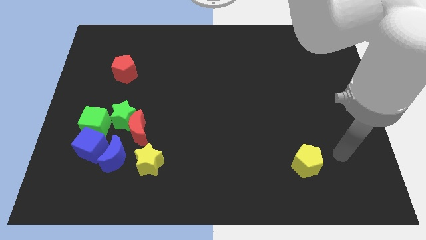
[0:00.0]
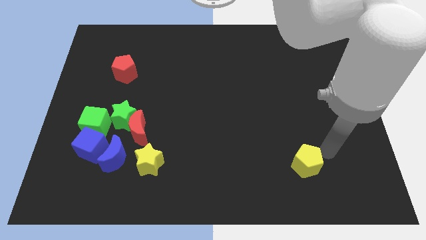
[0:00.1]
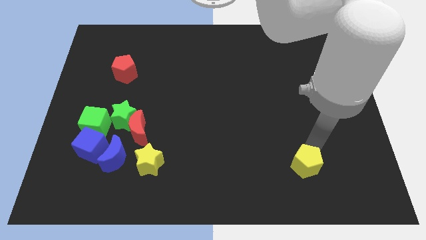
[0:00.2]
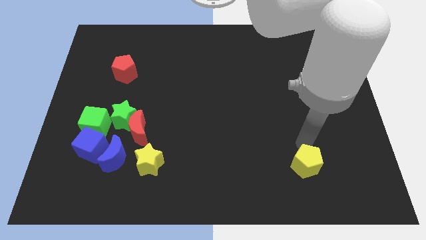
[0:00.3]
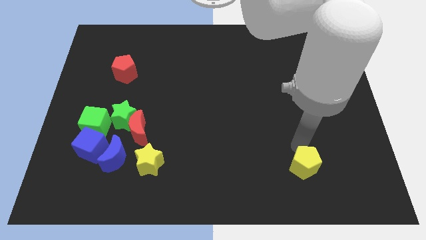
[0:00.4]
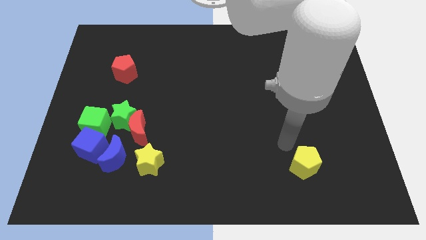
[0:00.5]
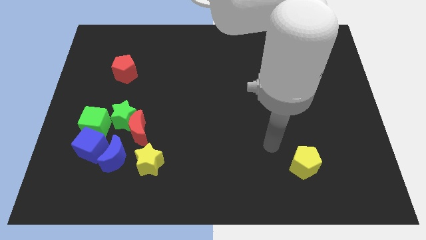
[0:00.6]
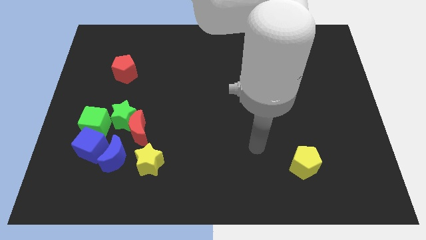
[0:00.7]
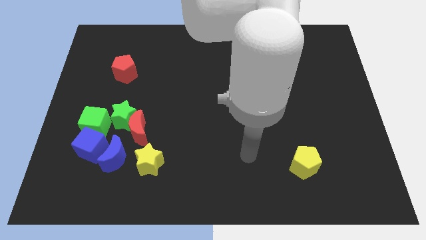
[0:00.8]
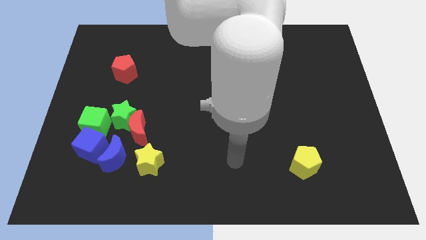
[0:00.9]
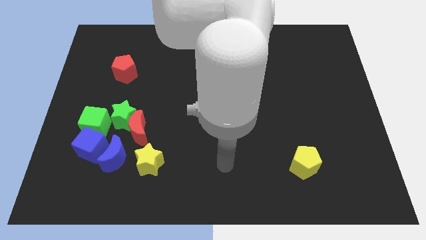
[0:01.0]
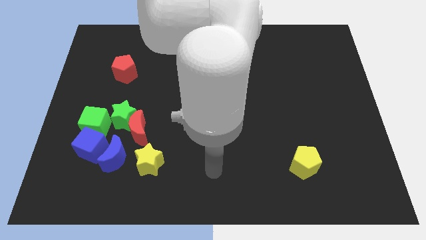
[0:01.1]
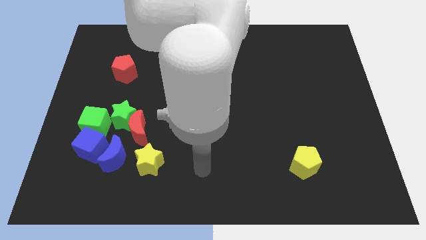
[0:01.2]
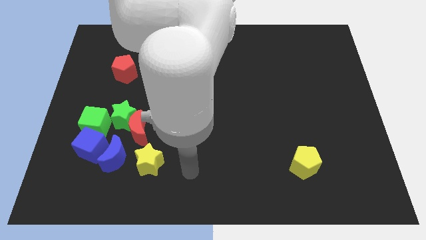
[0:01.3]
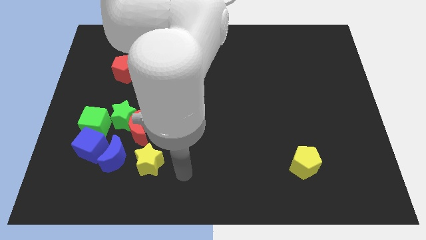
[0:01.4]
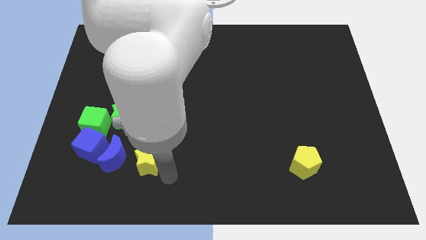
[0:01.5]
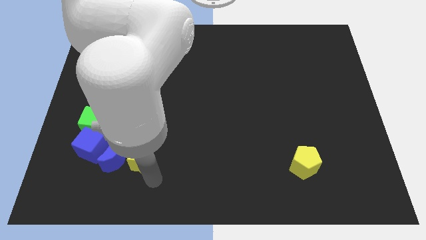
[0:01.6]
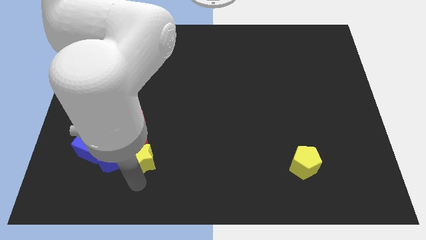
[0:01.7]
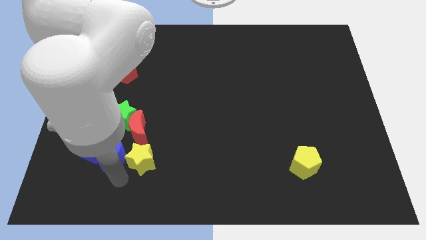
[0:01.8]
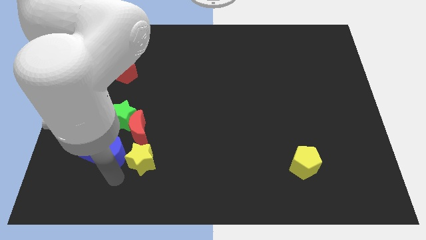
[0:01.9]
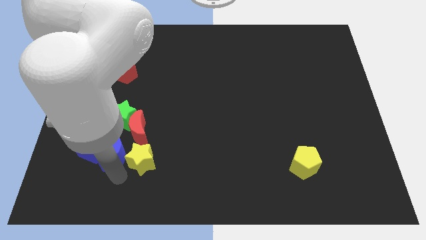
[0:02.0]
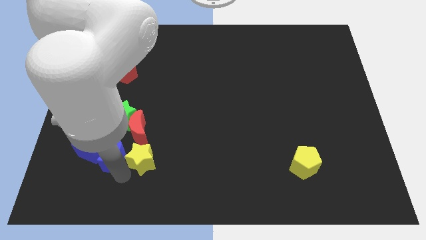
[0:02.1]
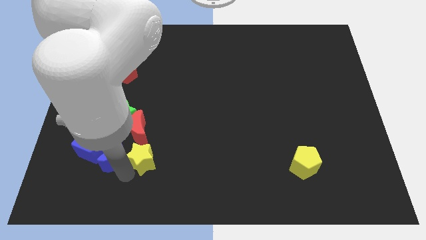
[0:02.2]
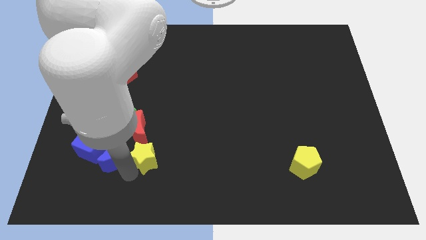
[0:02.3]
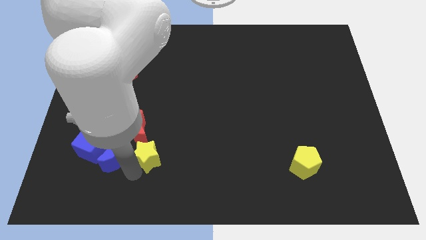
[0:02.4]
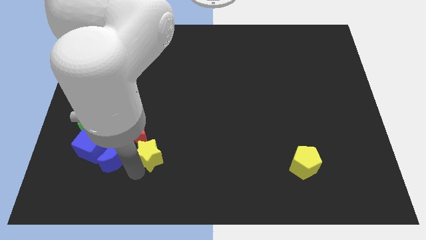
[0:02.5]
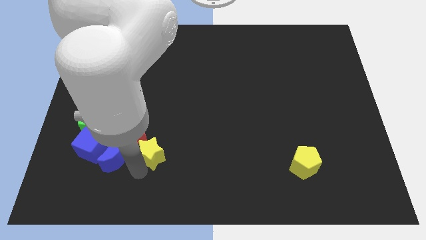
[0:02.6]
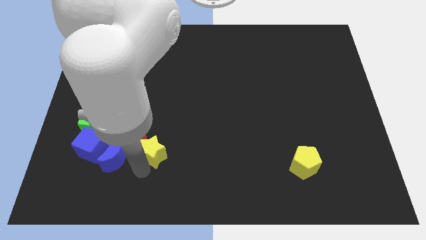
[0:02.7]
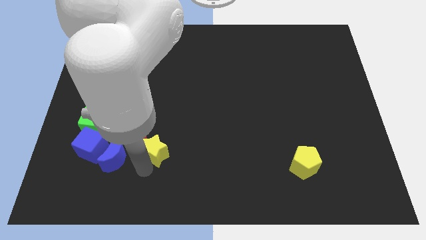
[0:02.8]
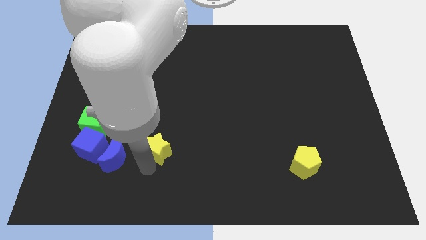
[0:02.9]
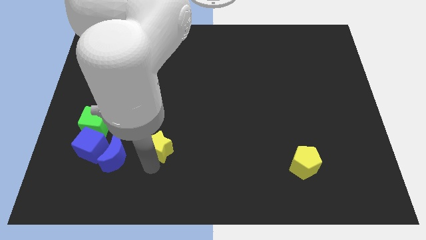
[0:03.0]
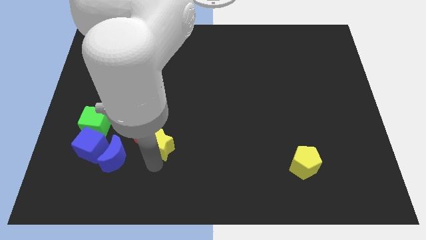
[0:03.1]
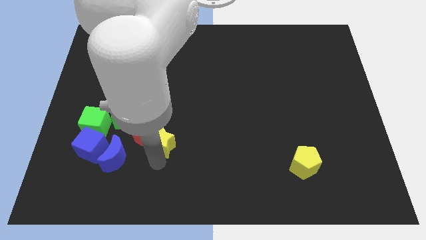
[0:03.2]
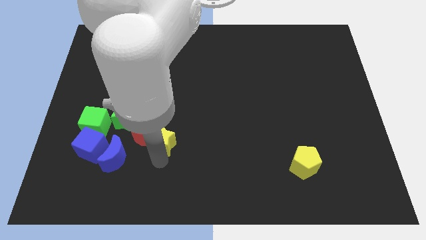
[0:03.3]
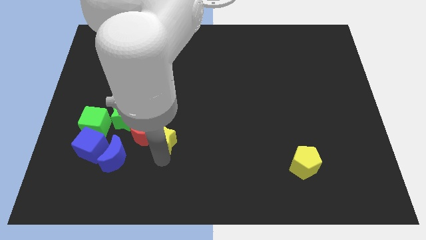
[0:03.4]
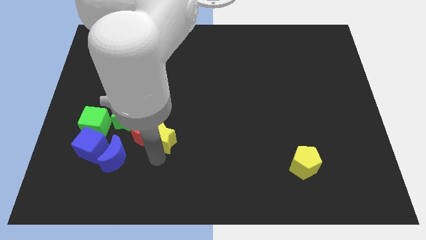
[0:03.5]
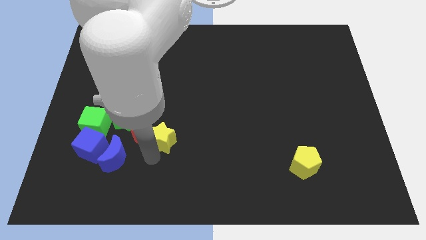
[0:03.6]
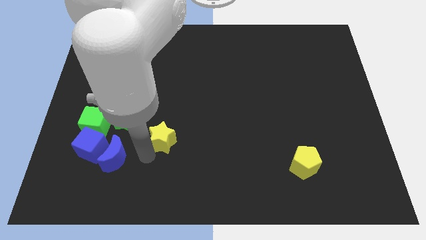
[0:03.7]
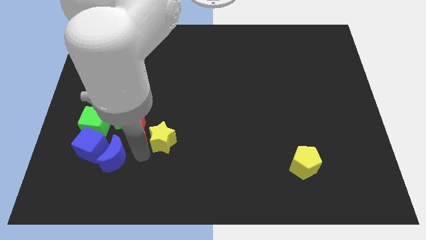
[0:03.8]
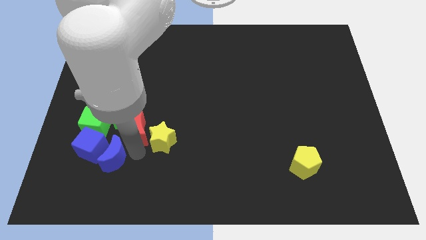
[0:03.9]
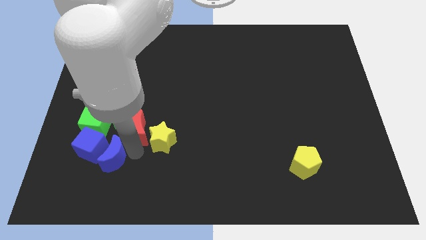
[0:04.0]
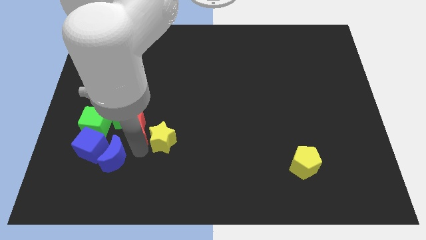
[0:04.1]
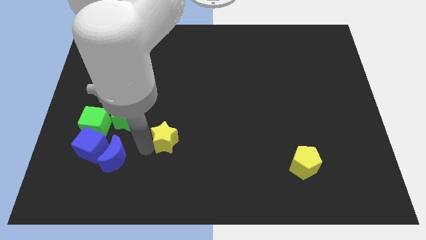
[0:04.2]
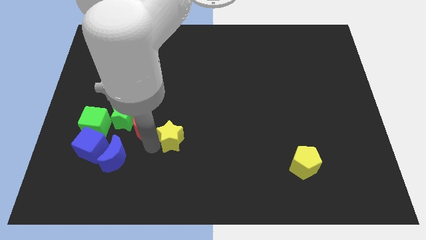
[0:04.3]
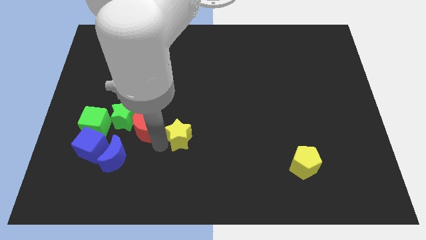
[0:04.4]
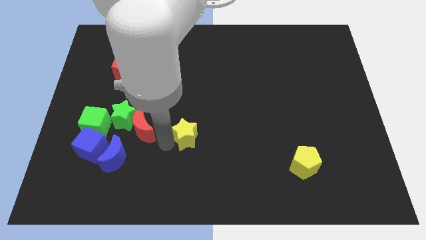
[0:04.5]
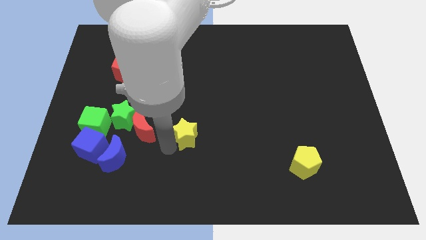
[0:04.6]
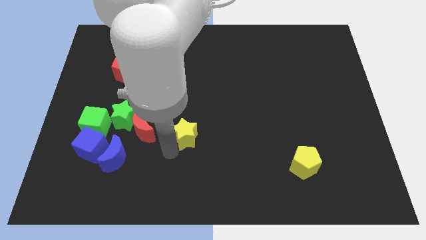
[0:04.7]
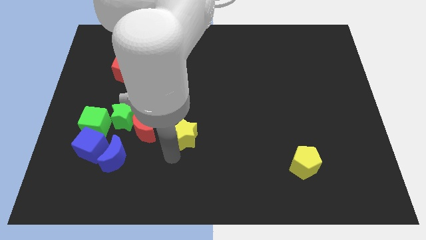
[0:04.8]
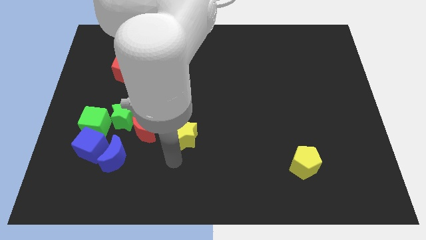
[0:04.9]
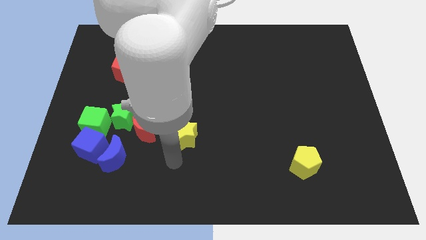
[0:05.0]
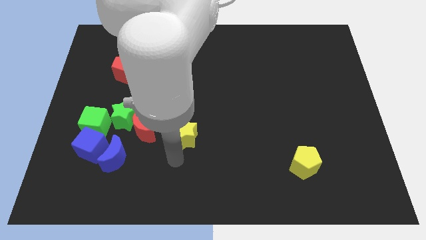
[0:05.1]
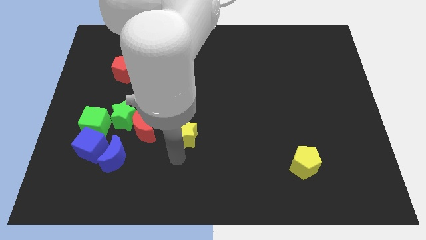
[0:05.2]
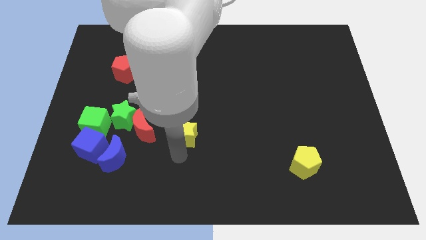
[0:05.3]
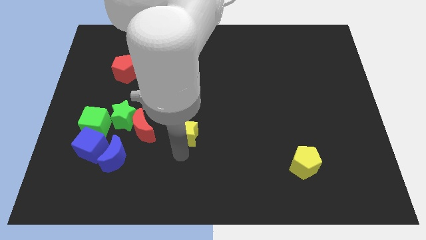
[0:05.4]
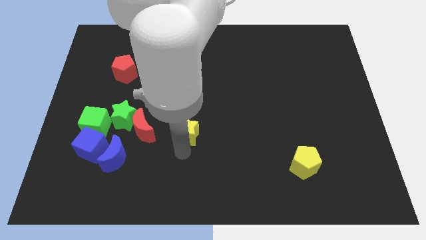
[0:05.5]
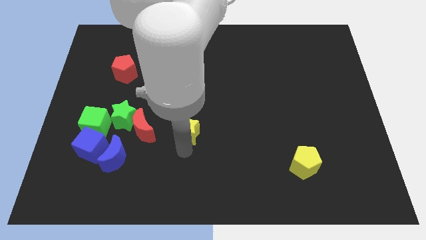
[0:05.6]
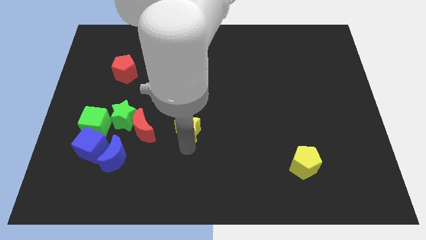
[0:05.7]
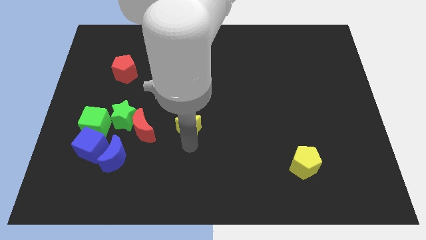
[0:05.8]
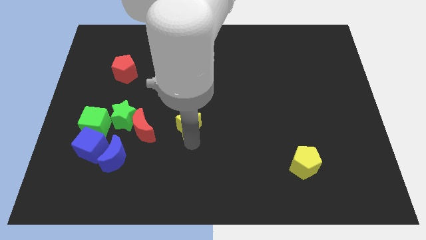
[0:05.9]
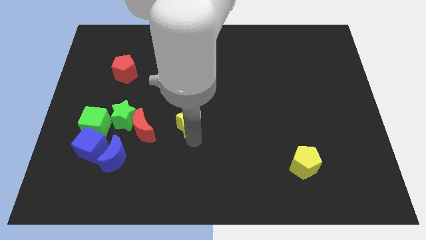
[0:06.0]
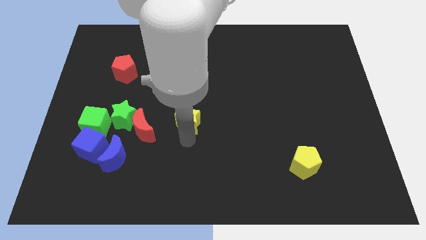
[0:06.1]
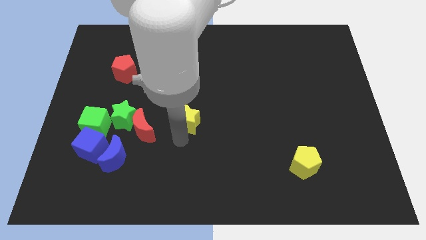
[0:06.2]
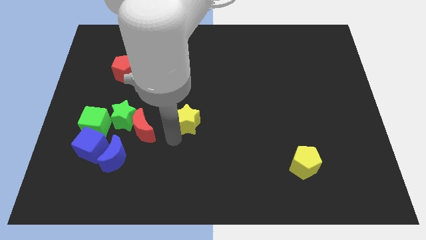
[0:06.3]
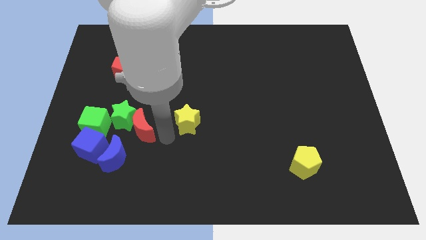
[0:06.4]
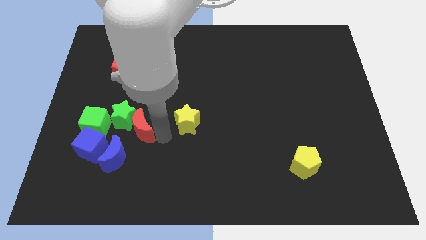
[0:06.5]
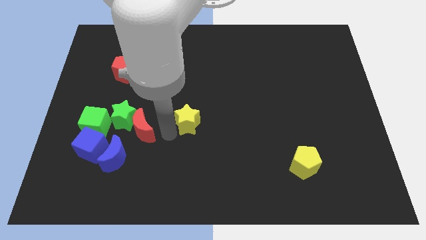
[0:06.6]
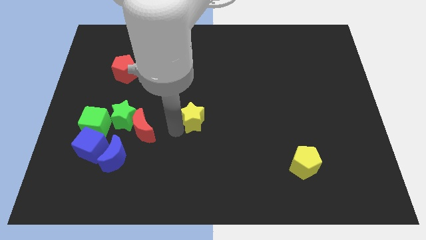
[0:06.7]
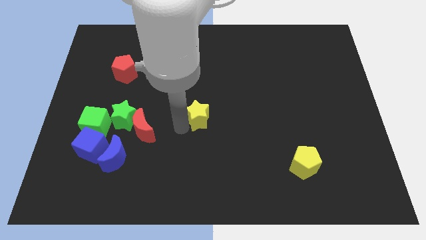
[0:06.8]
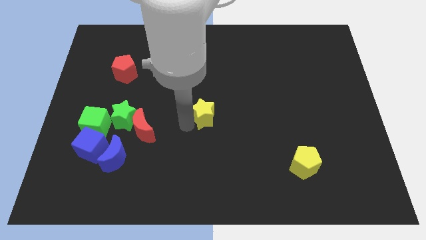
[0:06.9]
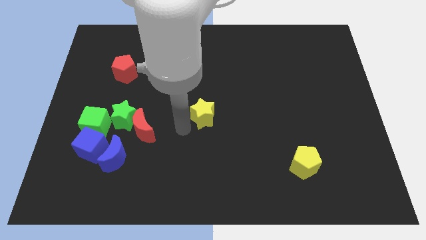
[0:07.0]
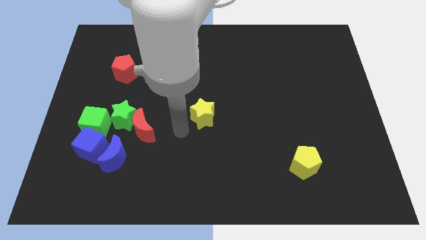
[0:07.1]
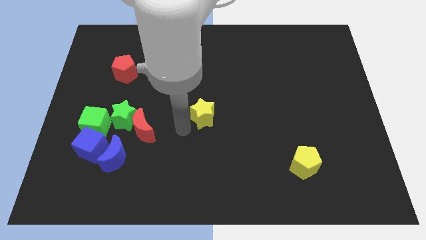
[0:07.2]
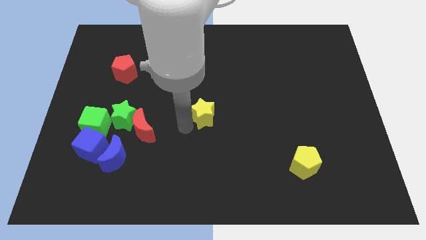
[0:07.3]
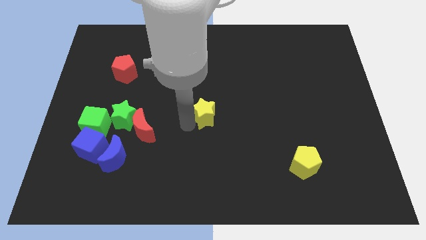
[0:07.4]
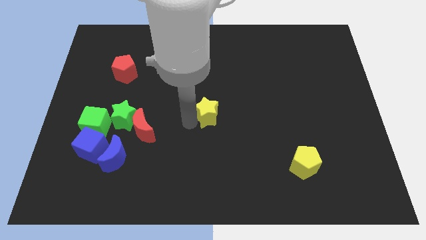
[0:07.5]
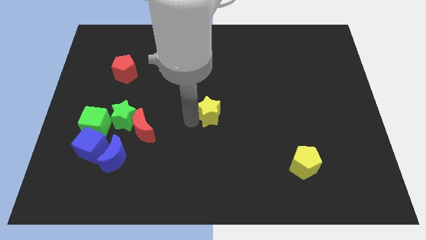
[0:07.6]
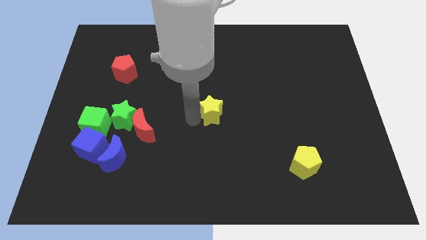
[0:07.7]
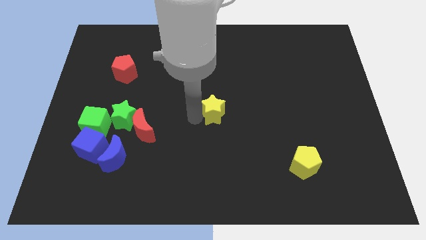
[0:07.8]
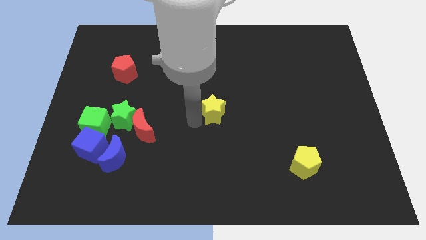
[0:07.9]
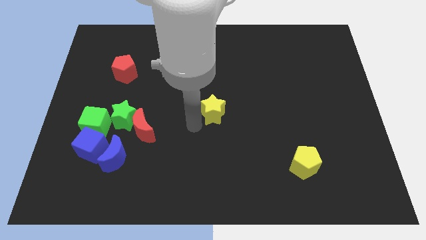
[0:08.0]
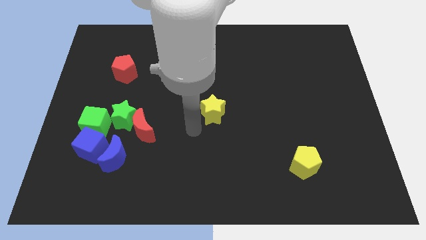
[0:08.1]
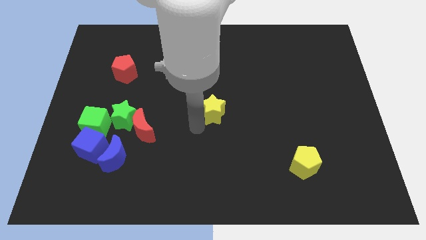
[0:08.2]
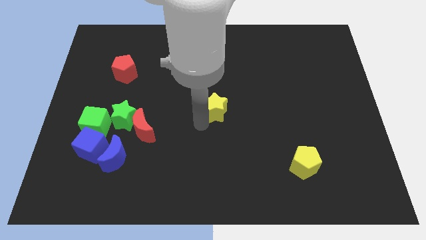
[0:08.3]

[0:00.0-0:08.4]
push the yellow star diagonally up and to the right
